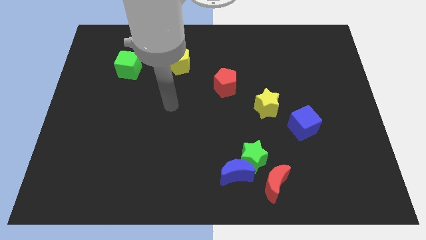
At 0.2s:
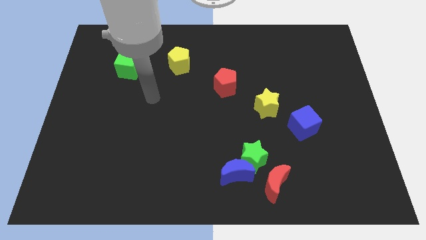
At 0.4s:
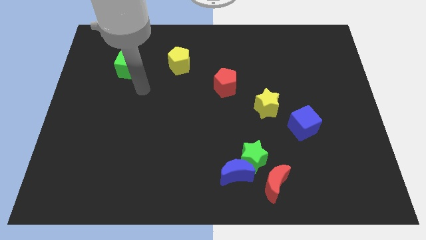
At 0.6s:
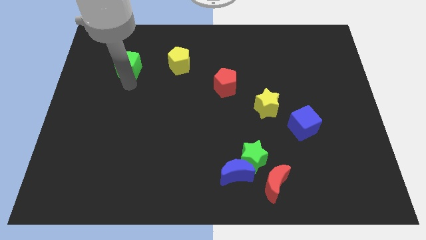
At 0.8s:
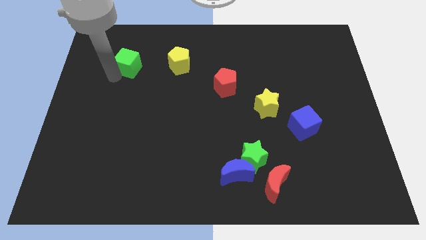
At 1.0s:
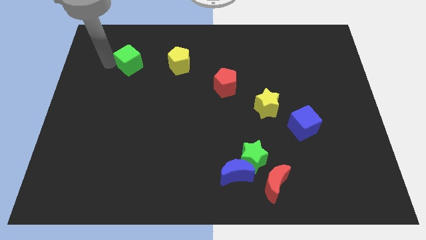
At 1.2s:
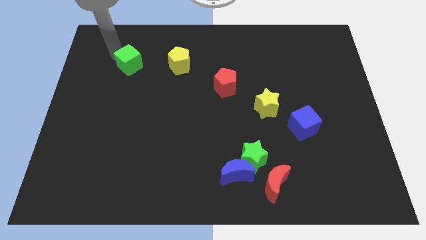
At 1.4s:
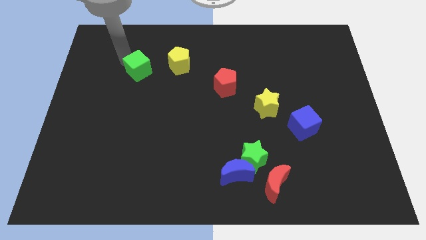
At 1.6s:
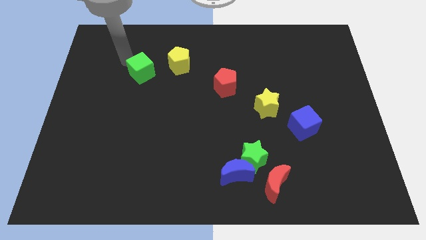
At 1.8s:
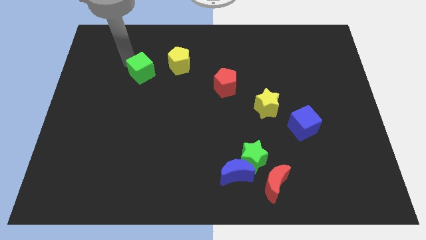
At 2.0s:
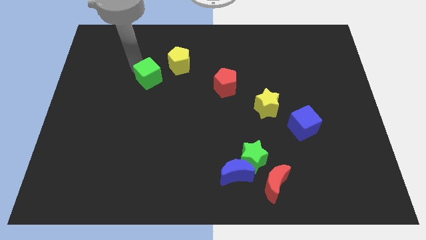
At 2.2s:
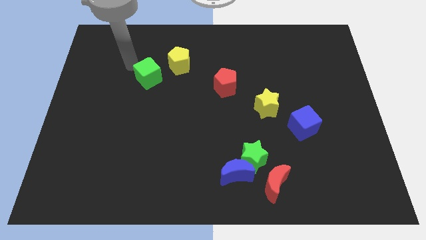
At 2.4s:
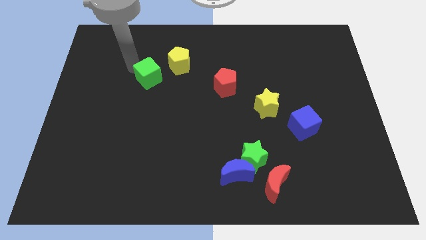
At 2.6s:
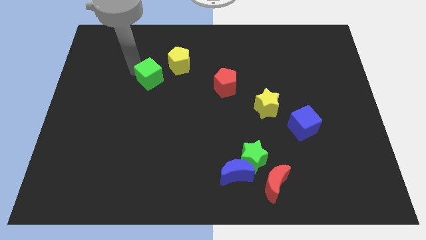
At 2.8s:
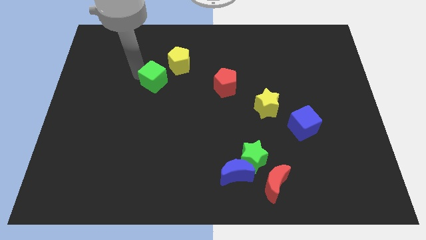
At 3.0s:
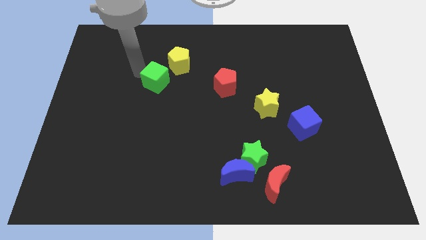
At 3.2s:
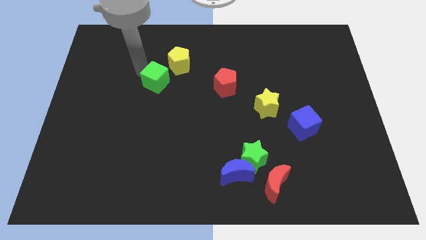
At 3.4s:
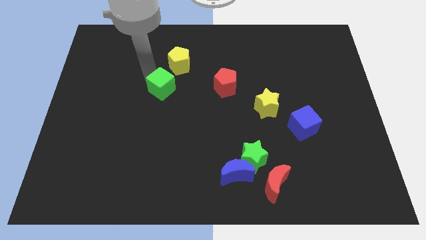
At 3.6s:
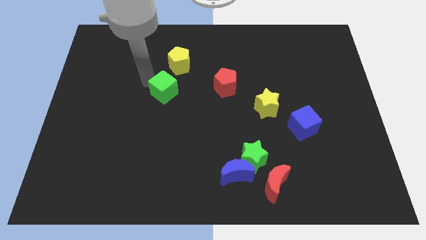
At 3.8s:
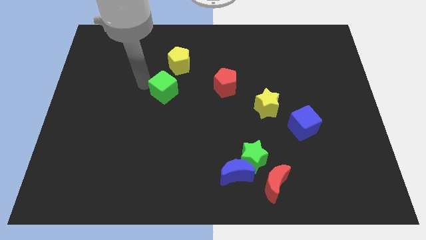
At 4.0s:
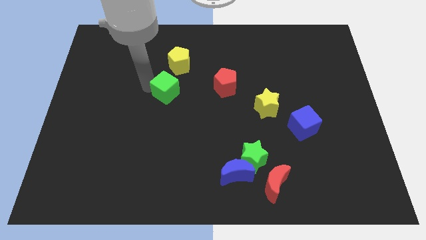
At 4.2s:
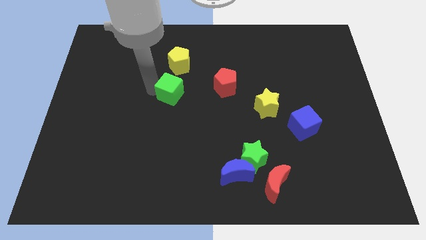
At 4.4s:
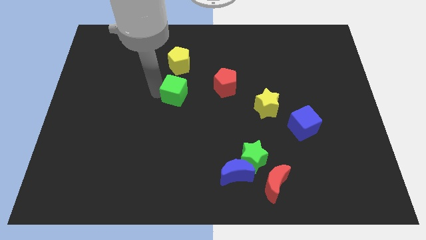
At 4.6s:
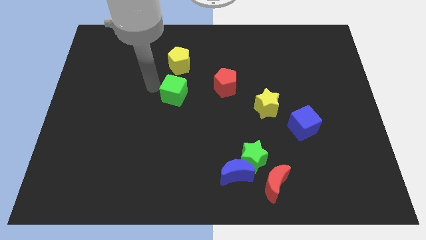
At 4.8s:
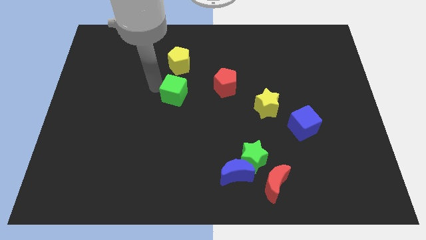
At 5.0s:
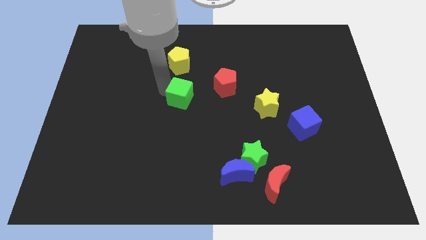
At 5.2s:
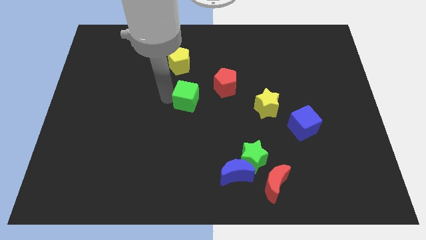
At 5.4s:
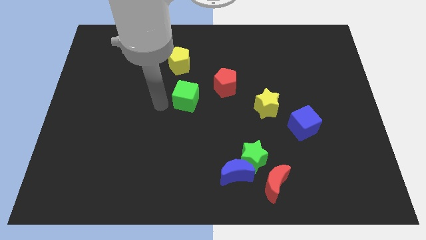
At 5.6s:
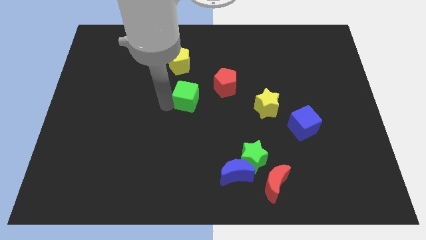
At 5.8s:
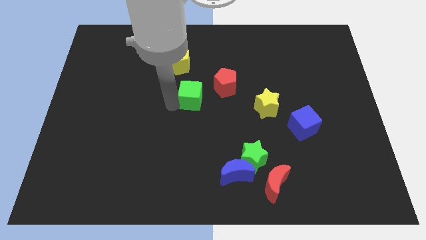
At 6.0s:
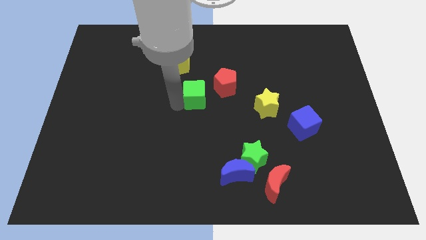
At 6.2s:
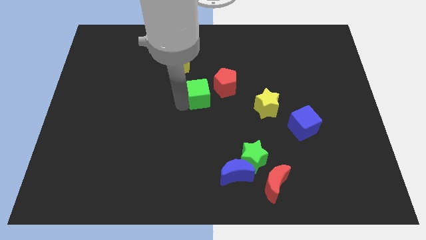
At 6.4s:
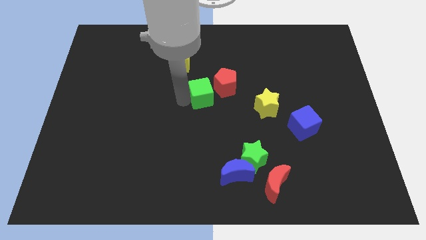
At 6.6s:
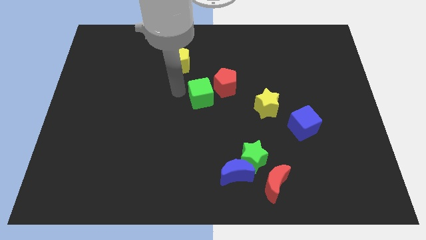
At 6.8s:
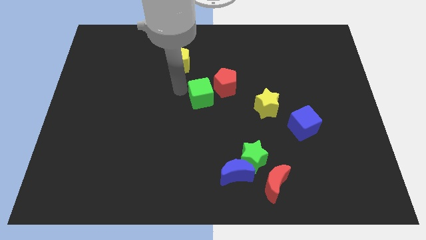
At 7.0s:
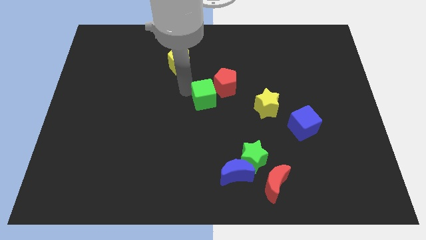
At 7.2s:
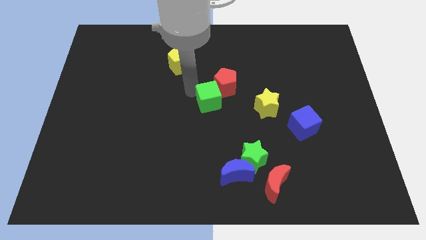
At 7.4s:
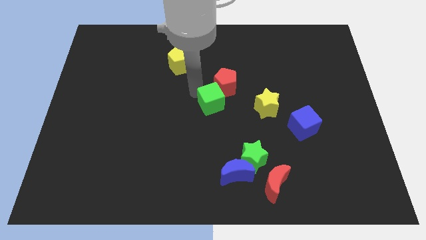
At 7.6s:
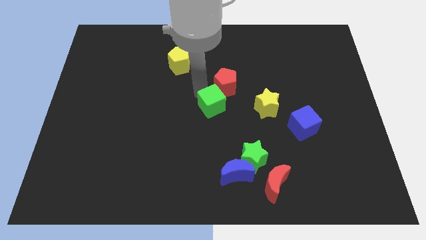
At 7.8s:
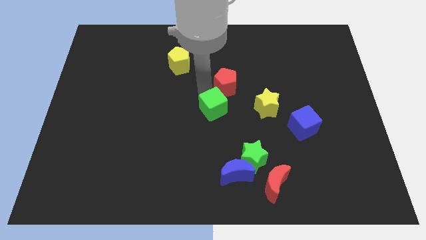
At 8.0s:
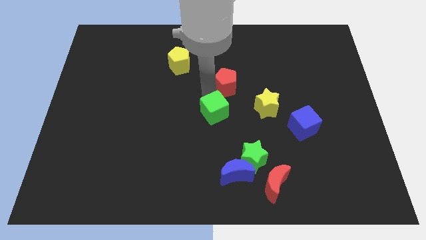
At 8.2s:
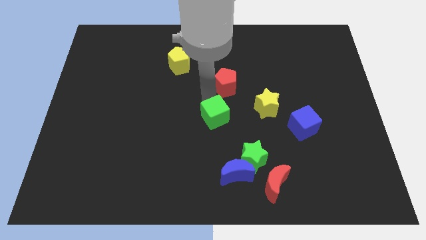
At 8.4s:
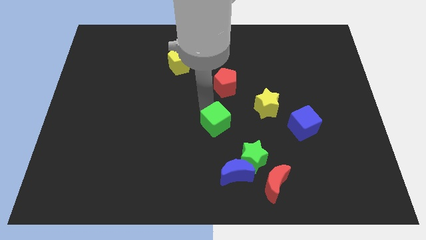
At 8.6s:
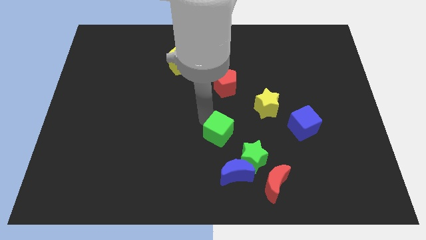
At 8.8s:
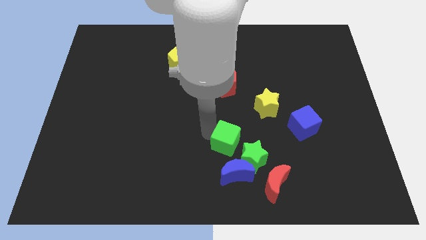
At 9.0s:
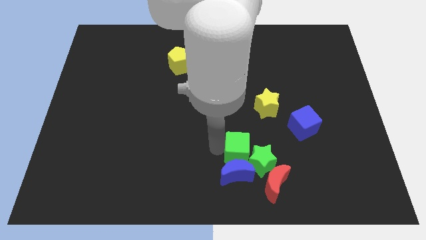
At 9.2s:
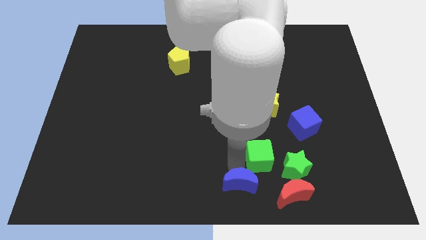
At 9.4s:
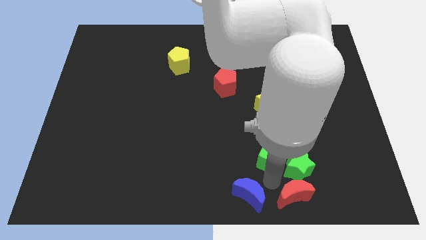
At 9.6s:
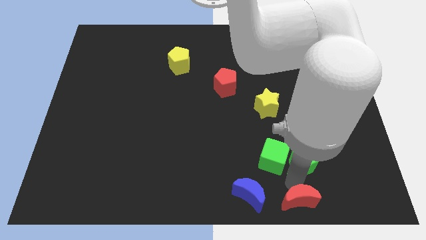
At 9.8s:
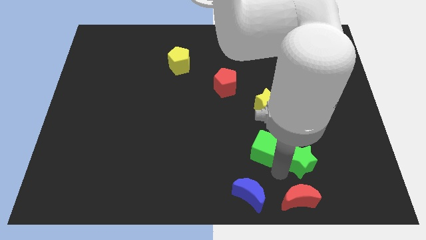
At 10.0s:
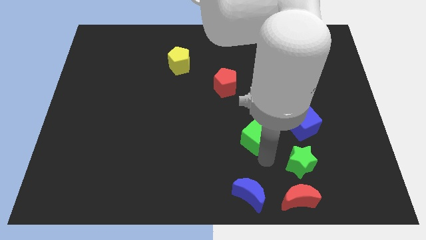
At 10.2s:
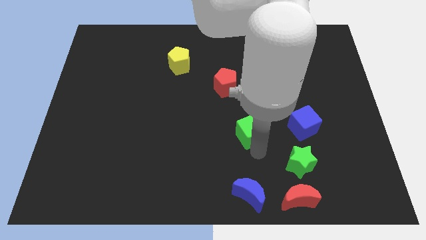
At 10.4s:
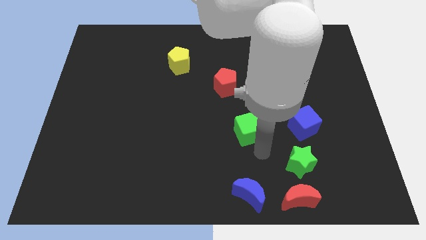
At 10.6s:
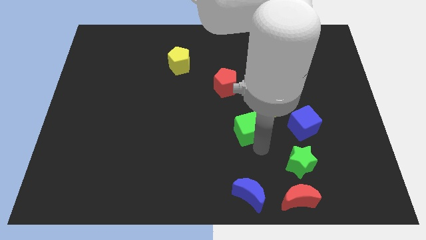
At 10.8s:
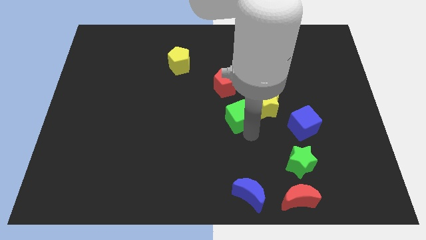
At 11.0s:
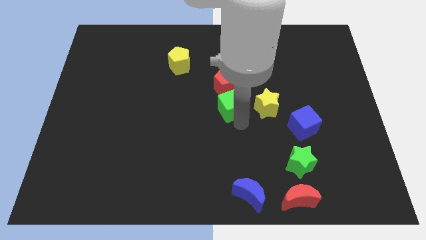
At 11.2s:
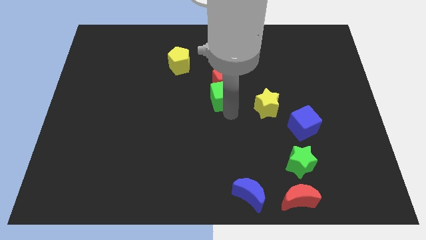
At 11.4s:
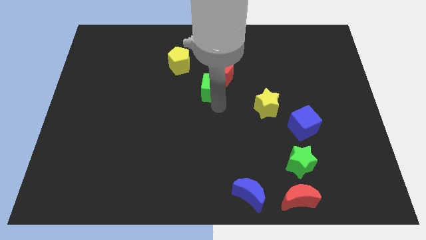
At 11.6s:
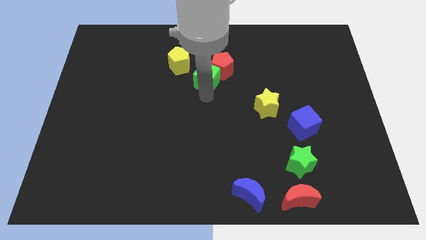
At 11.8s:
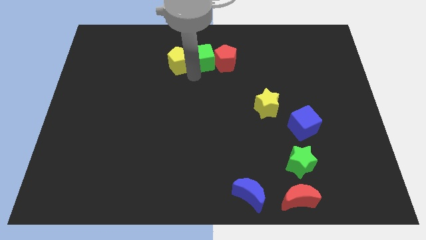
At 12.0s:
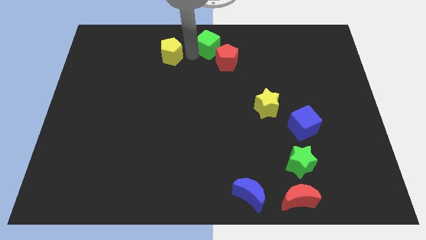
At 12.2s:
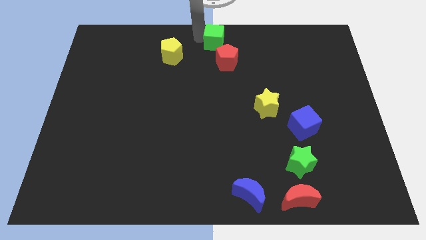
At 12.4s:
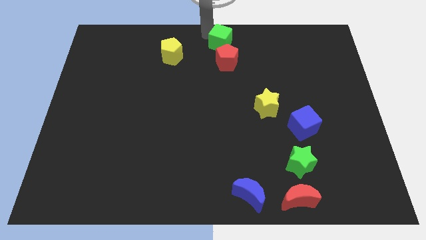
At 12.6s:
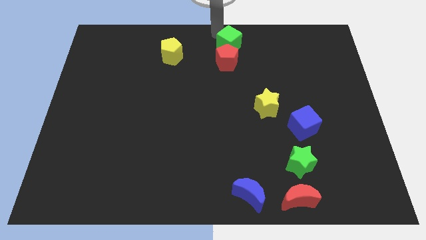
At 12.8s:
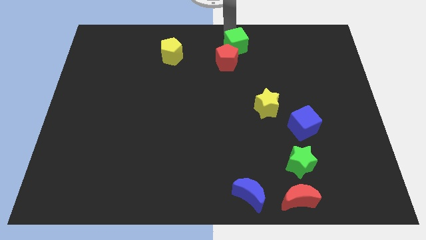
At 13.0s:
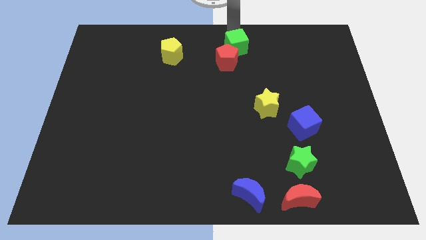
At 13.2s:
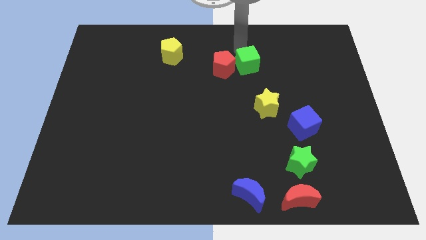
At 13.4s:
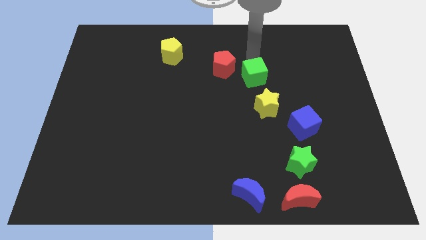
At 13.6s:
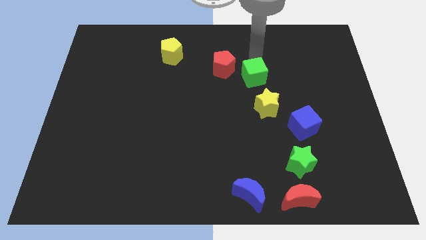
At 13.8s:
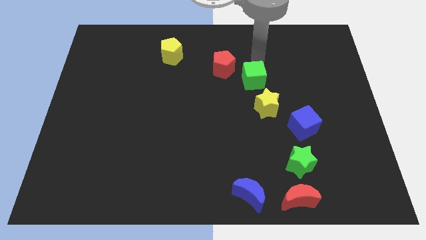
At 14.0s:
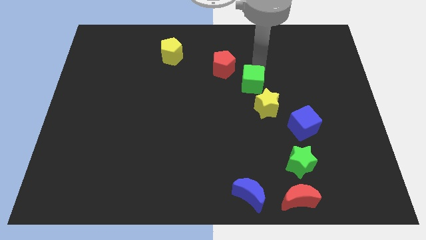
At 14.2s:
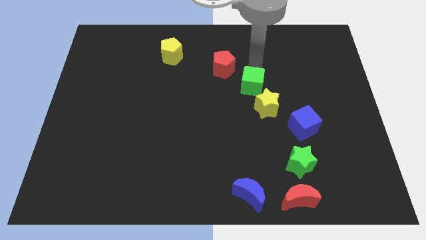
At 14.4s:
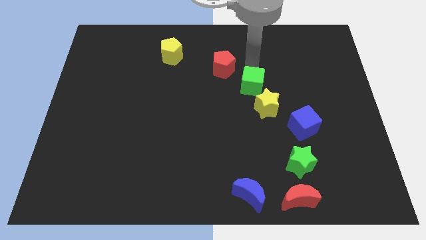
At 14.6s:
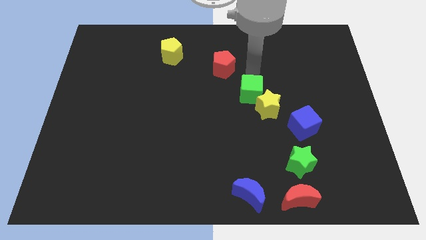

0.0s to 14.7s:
move the green cube close to the yellow star

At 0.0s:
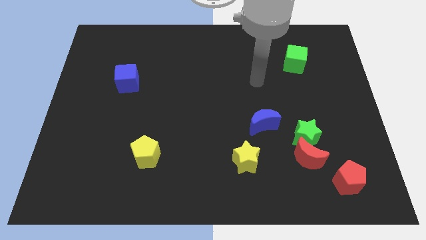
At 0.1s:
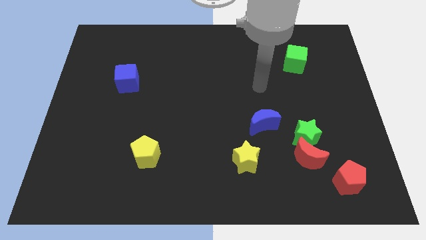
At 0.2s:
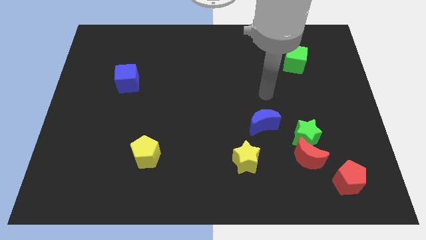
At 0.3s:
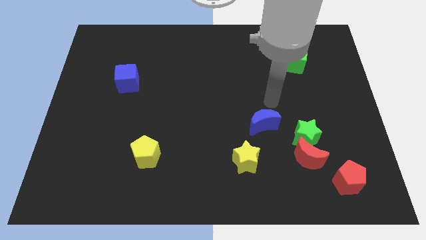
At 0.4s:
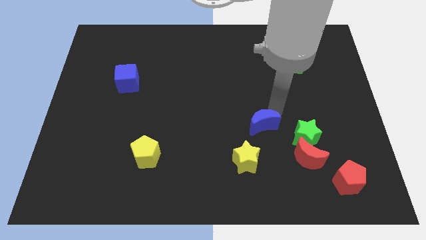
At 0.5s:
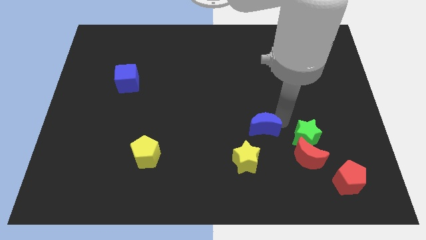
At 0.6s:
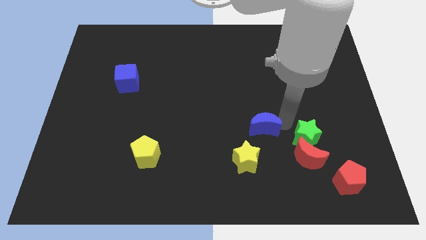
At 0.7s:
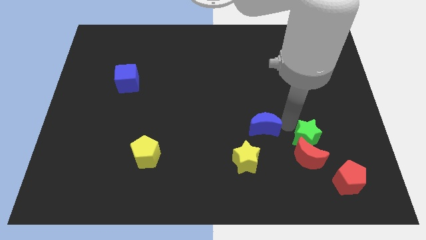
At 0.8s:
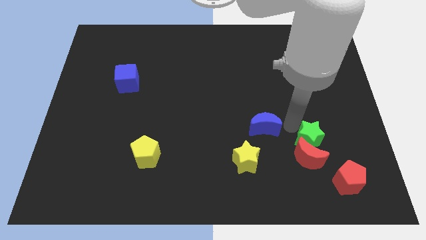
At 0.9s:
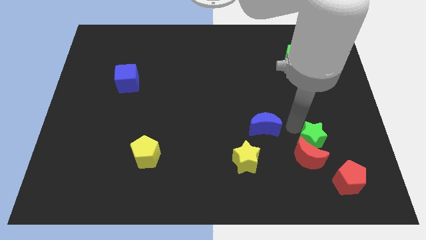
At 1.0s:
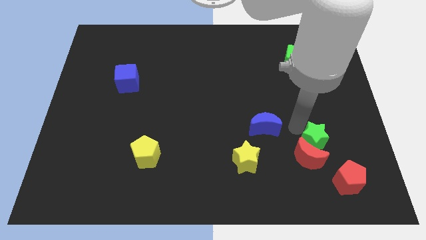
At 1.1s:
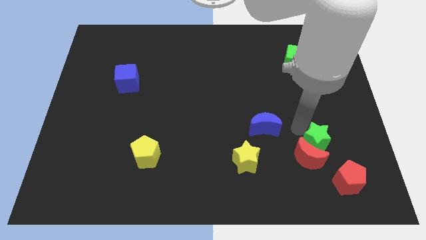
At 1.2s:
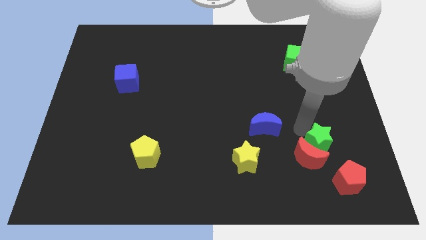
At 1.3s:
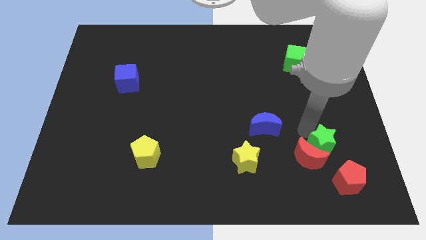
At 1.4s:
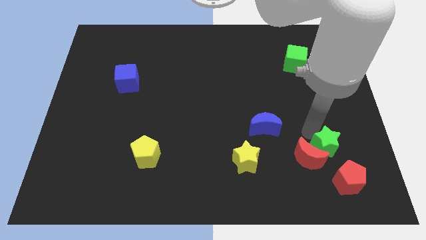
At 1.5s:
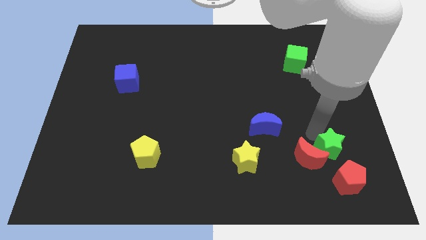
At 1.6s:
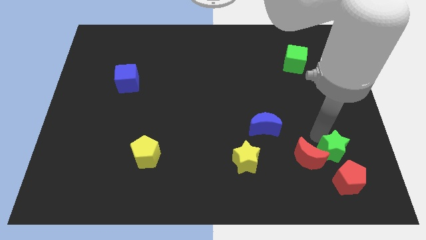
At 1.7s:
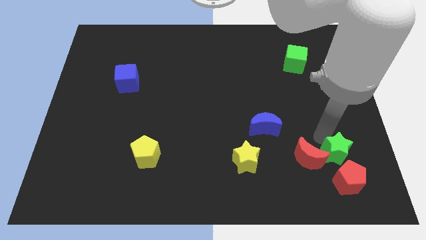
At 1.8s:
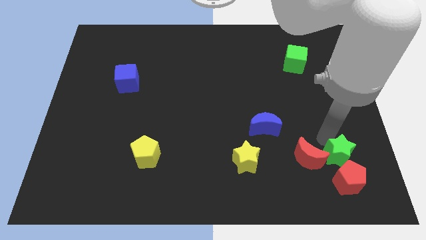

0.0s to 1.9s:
move the green star to the red pentagon
